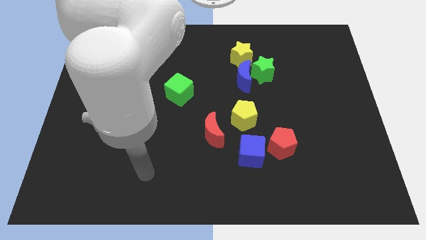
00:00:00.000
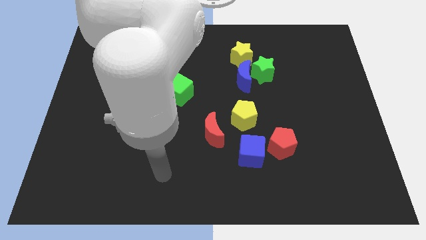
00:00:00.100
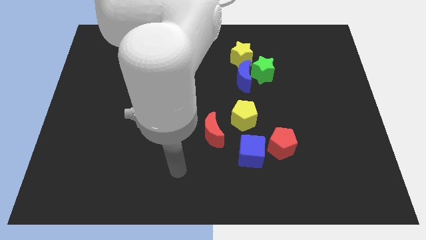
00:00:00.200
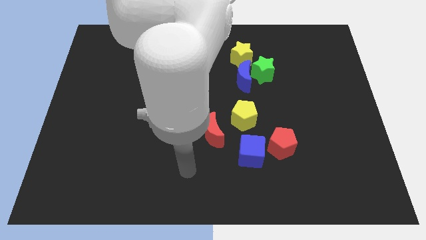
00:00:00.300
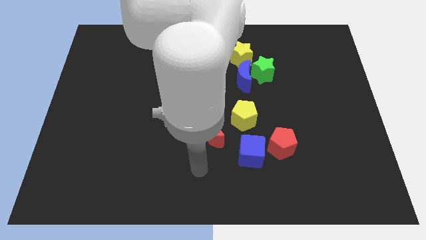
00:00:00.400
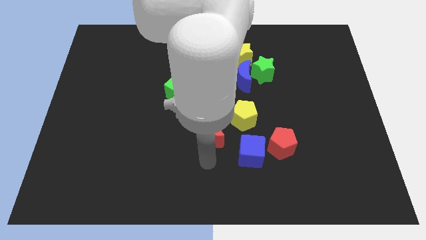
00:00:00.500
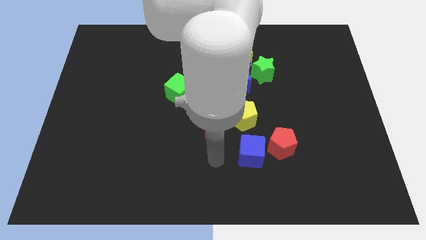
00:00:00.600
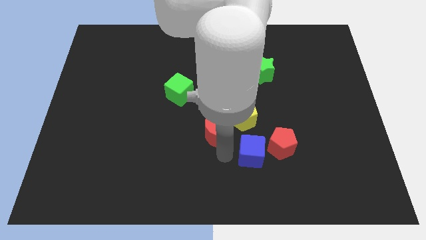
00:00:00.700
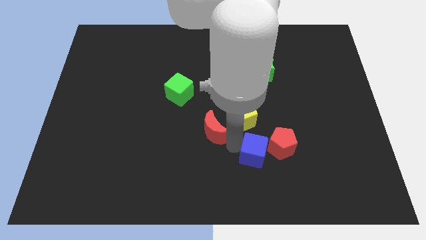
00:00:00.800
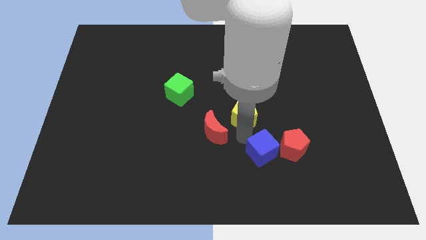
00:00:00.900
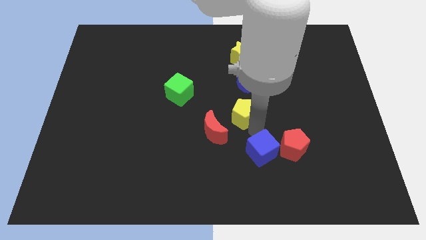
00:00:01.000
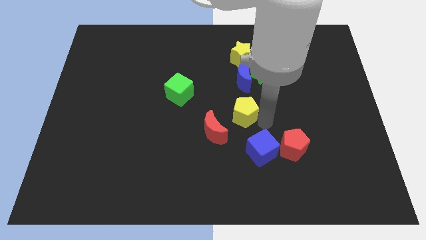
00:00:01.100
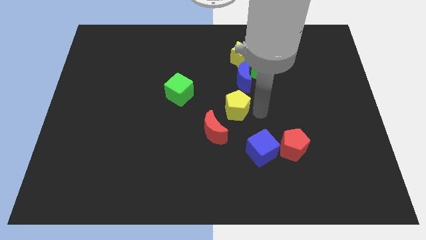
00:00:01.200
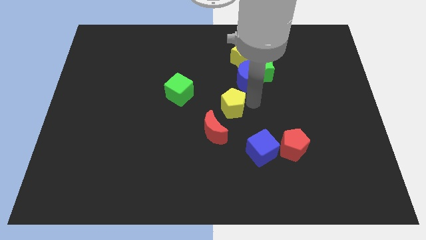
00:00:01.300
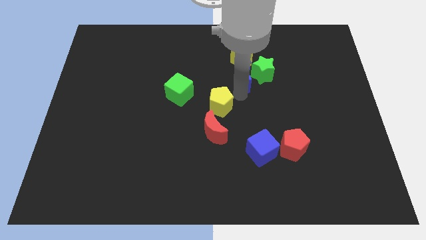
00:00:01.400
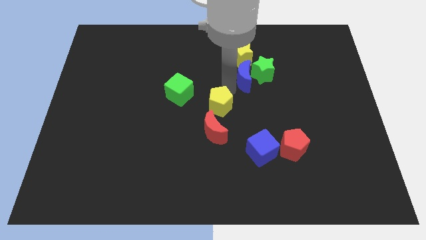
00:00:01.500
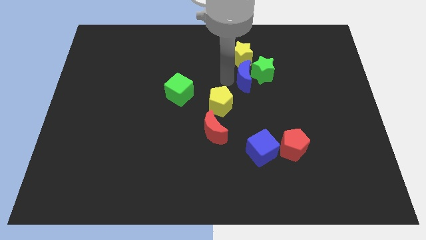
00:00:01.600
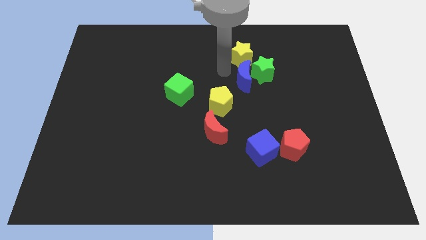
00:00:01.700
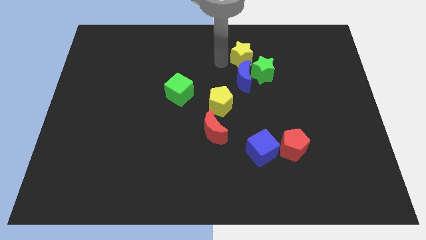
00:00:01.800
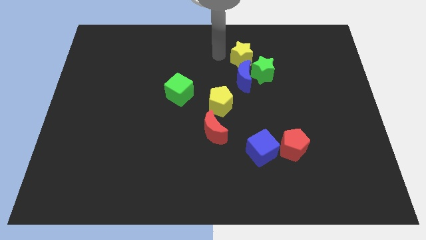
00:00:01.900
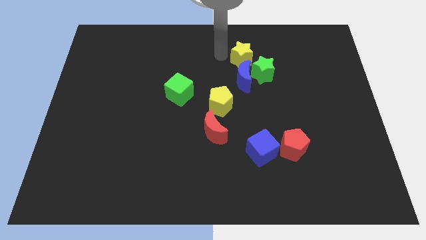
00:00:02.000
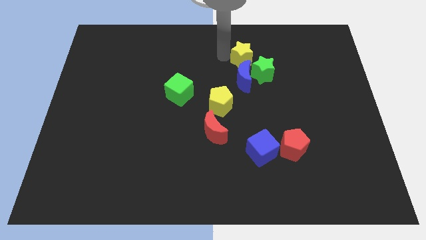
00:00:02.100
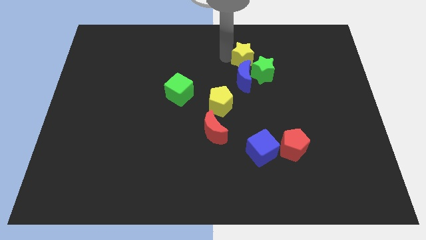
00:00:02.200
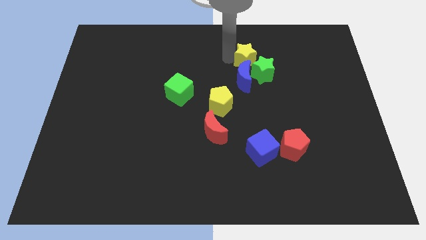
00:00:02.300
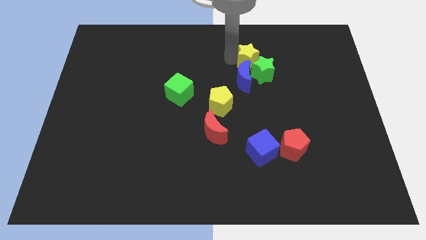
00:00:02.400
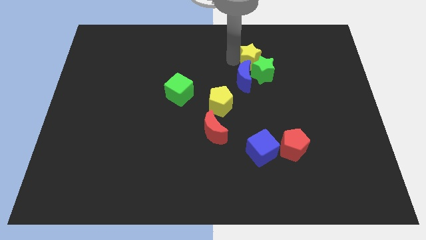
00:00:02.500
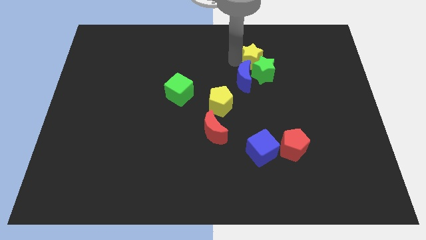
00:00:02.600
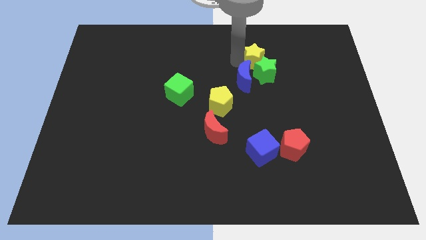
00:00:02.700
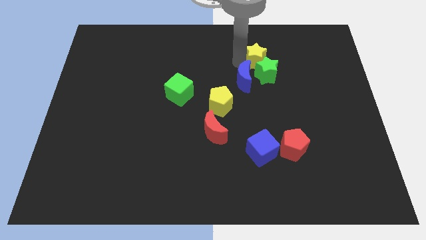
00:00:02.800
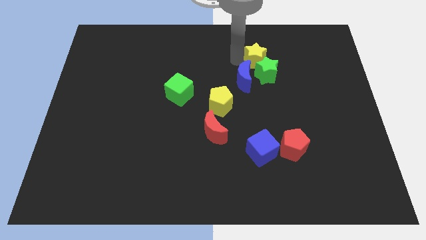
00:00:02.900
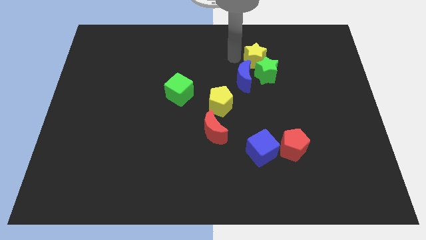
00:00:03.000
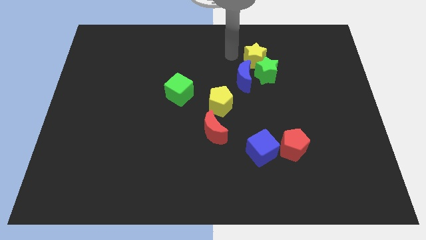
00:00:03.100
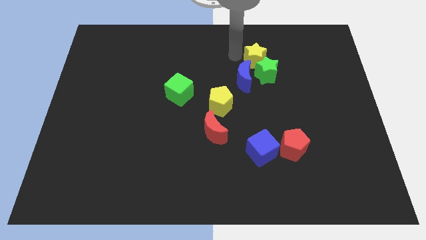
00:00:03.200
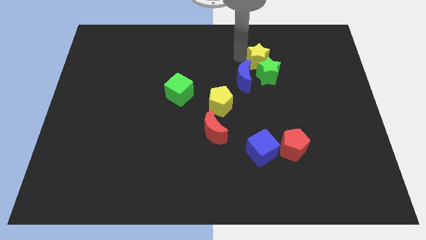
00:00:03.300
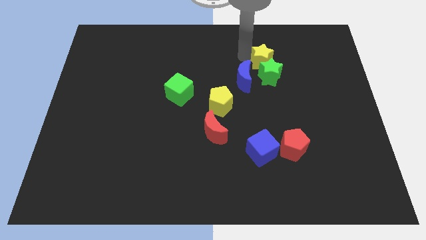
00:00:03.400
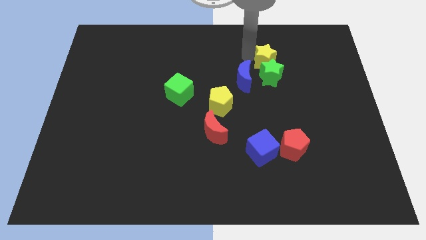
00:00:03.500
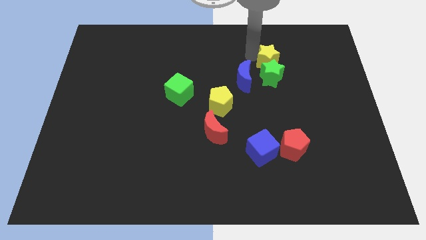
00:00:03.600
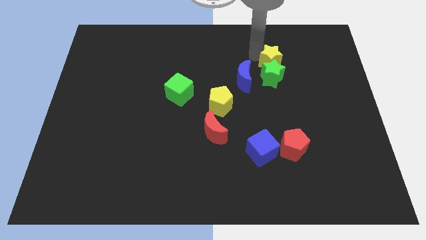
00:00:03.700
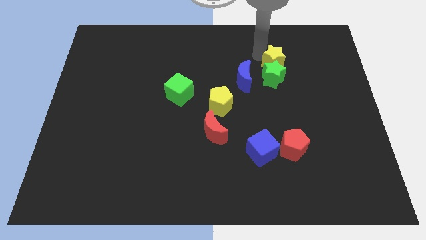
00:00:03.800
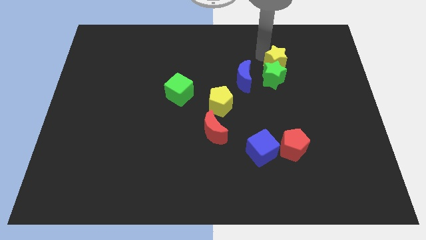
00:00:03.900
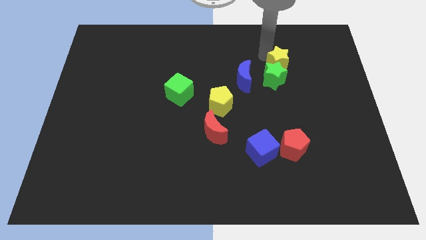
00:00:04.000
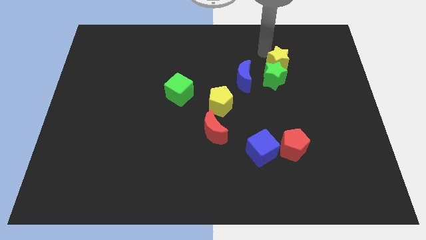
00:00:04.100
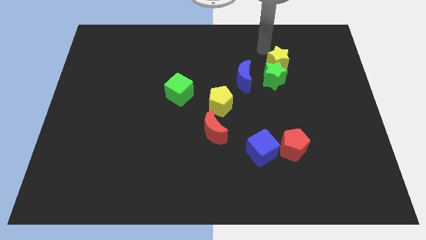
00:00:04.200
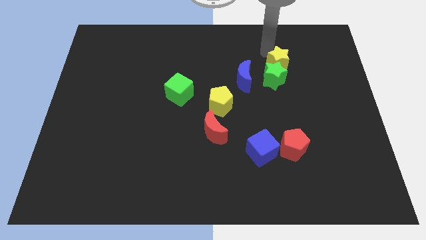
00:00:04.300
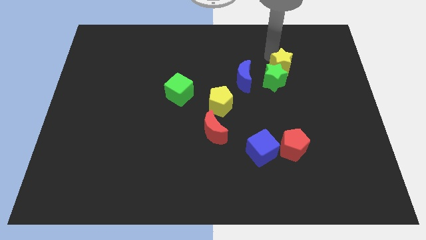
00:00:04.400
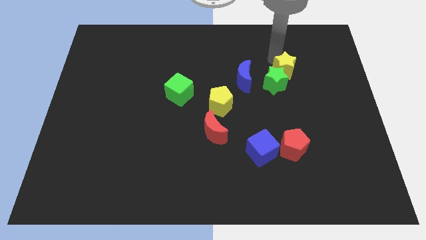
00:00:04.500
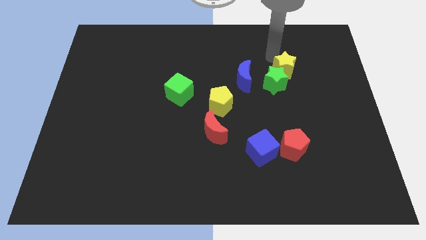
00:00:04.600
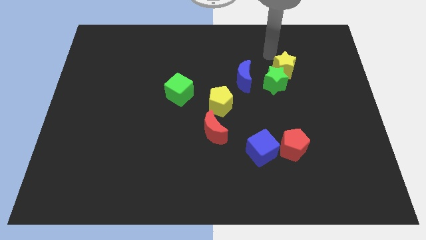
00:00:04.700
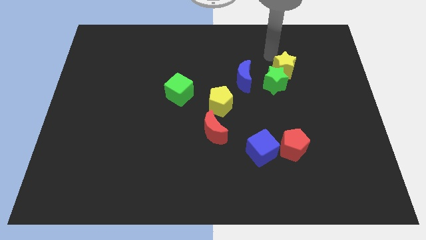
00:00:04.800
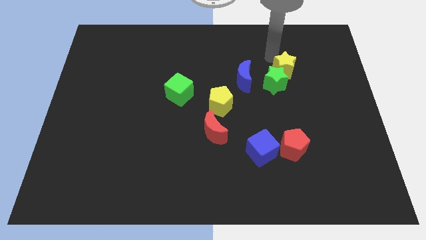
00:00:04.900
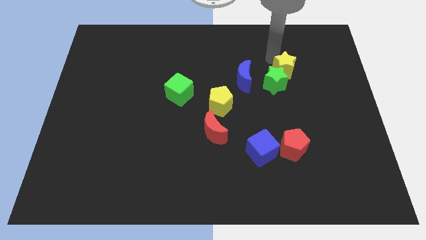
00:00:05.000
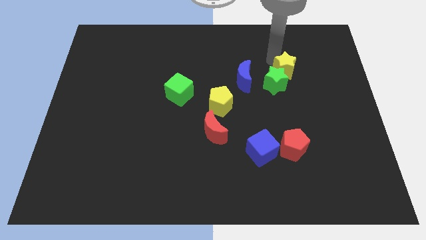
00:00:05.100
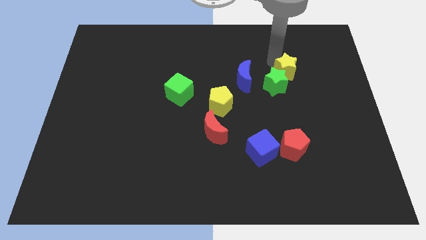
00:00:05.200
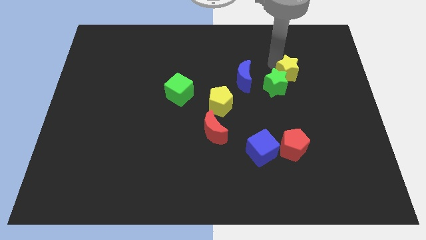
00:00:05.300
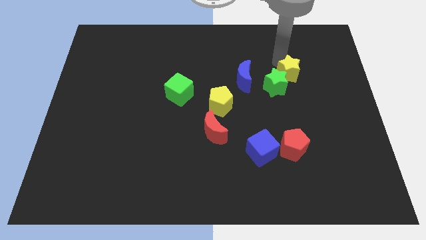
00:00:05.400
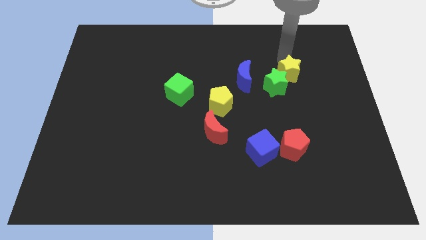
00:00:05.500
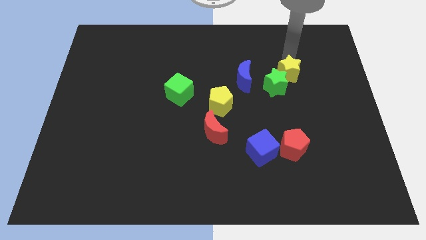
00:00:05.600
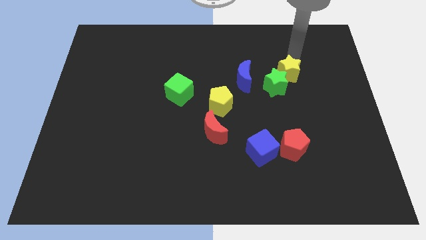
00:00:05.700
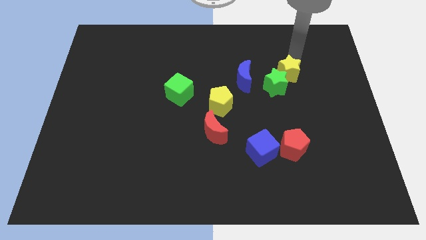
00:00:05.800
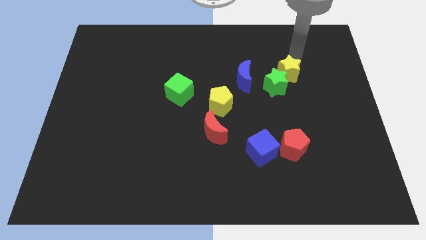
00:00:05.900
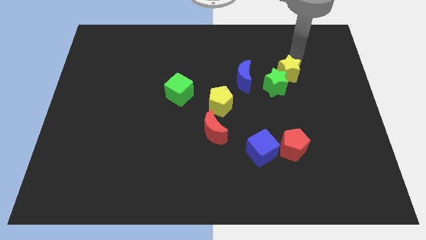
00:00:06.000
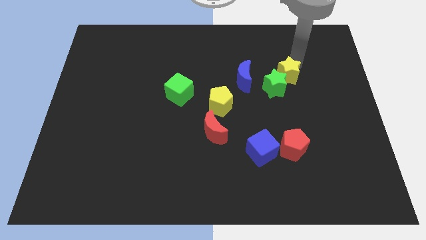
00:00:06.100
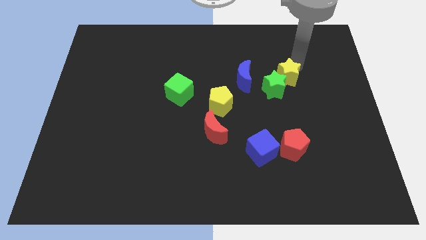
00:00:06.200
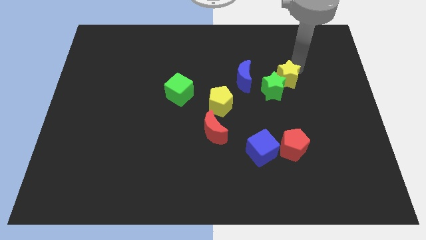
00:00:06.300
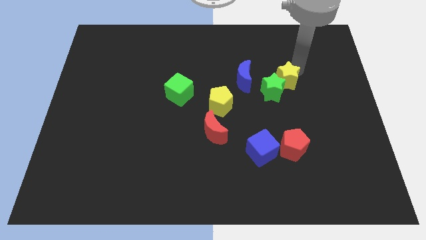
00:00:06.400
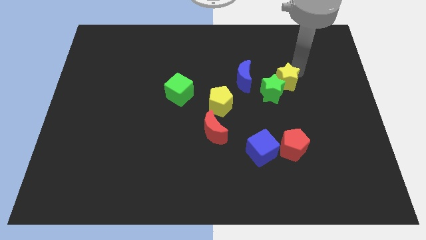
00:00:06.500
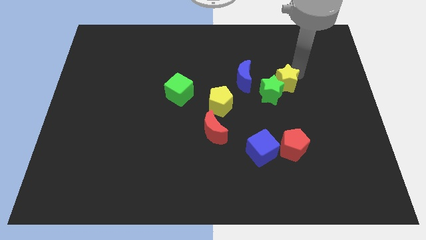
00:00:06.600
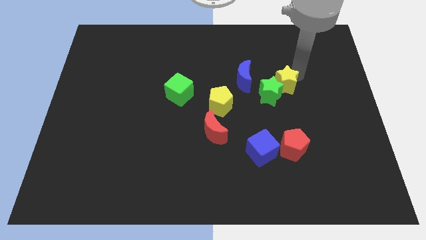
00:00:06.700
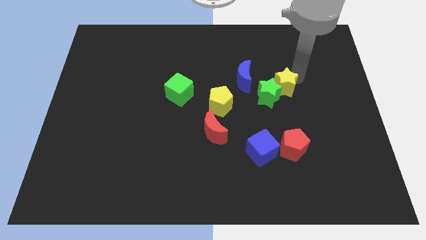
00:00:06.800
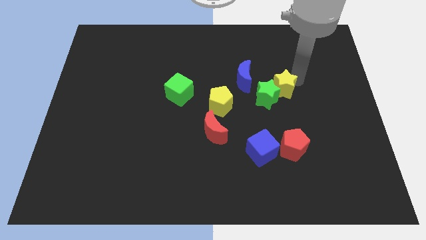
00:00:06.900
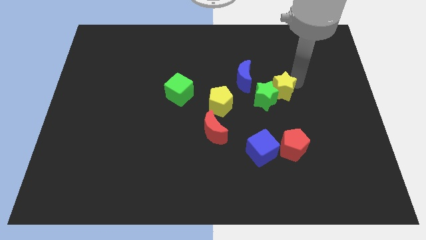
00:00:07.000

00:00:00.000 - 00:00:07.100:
move the yellow star above the red pentagon
